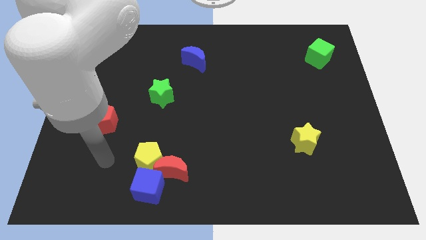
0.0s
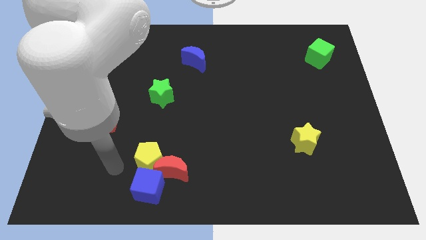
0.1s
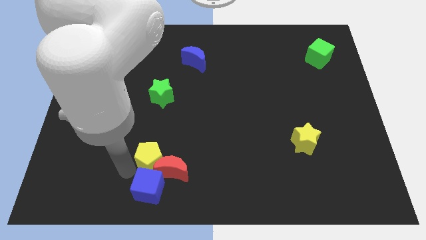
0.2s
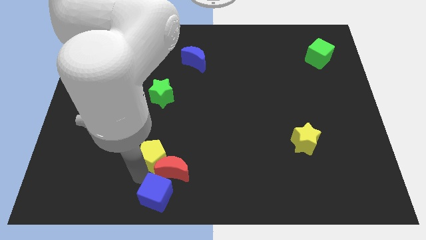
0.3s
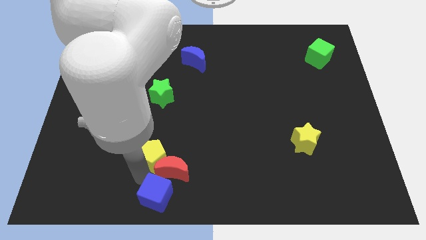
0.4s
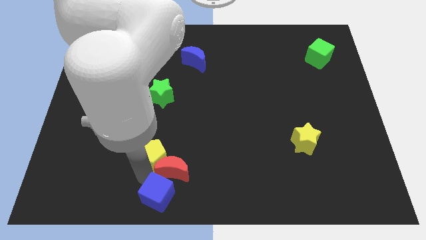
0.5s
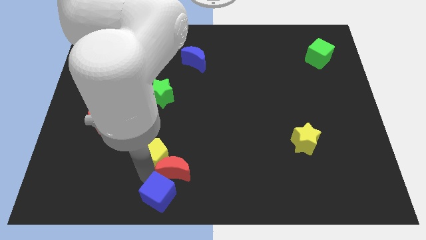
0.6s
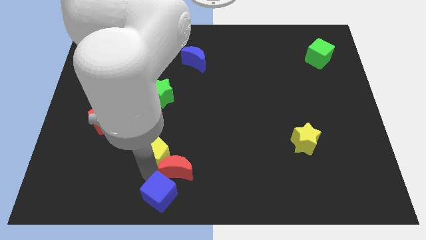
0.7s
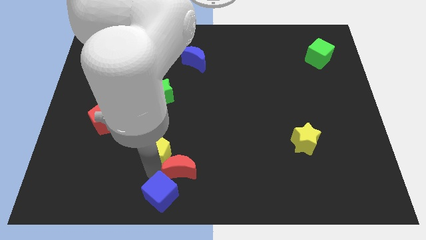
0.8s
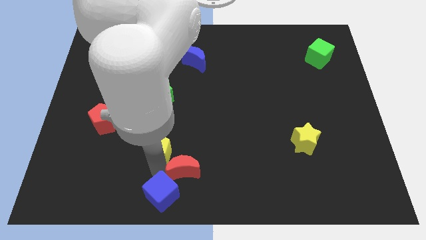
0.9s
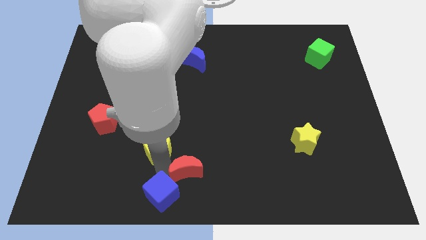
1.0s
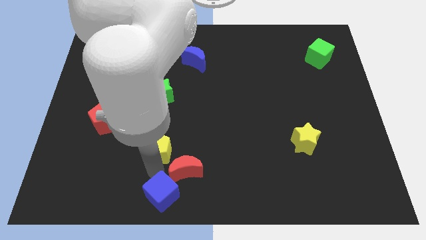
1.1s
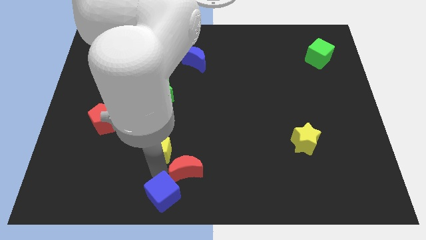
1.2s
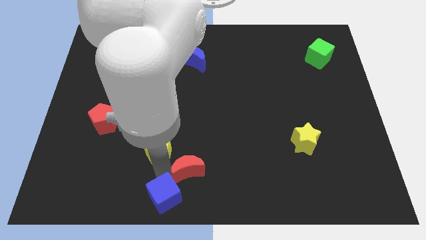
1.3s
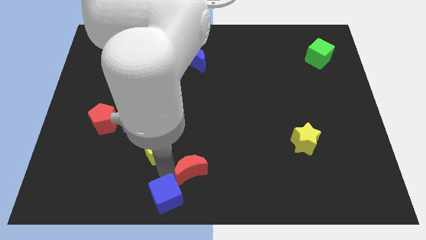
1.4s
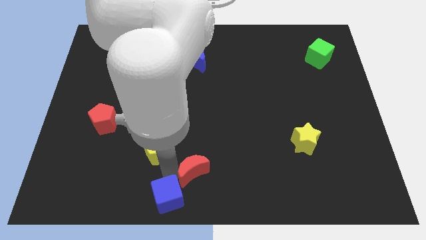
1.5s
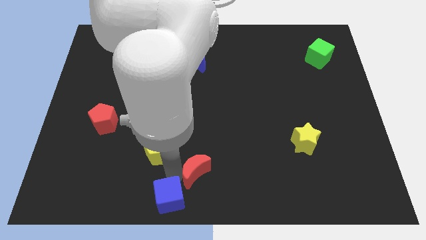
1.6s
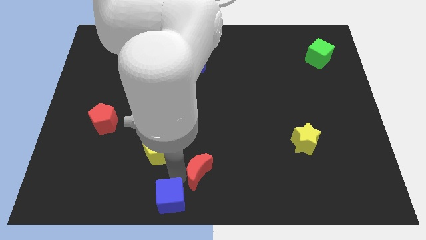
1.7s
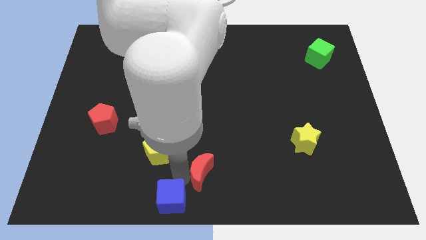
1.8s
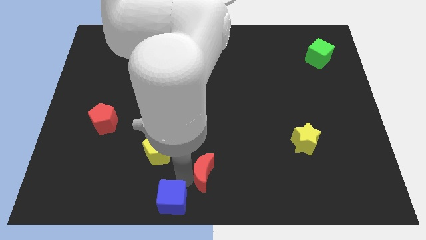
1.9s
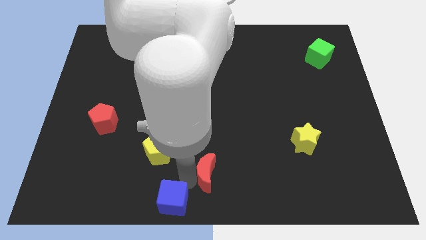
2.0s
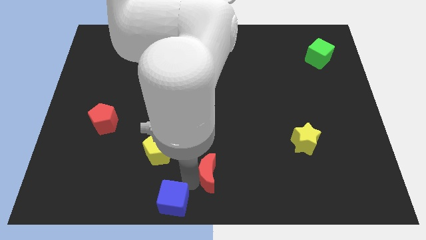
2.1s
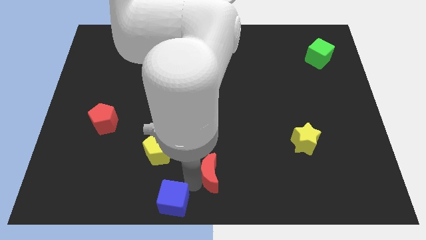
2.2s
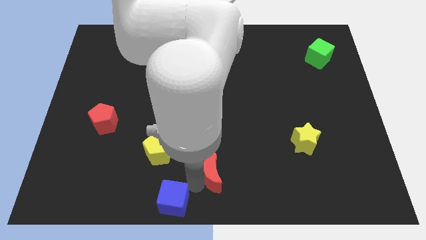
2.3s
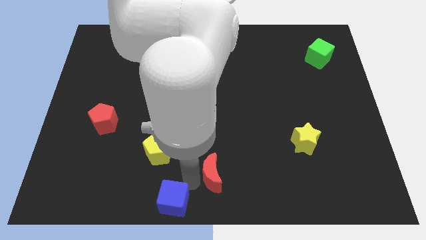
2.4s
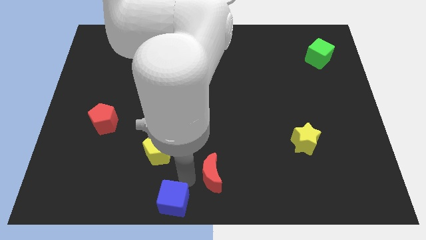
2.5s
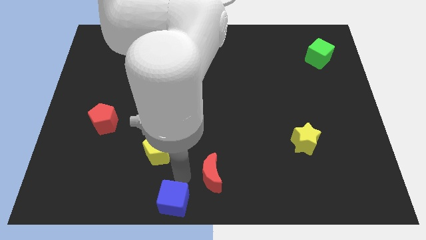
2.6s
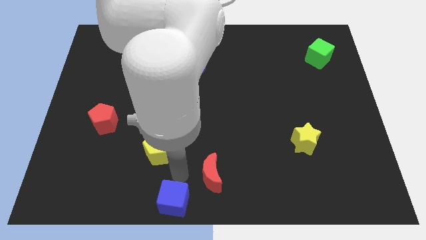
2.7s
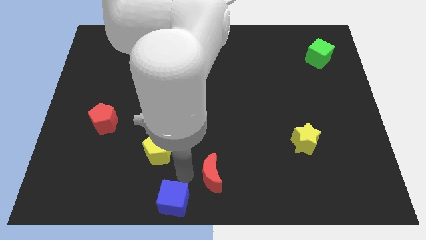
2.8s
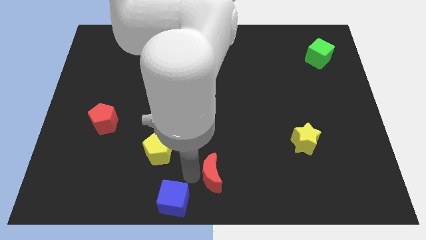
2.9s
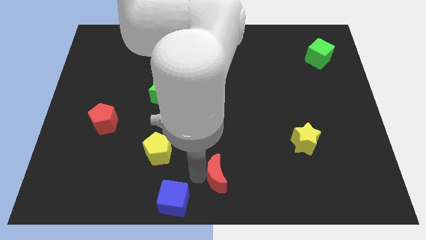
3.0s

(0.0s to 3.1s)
move the red moon away from the yellow pentagon and blue cube

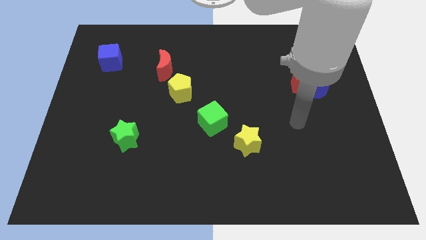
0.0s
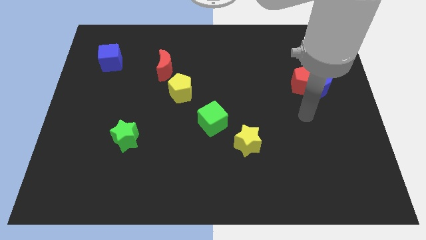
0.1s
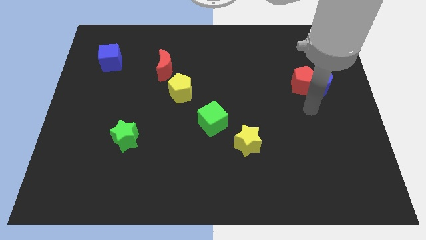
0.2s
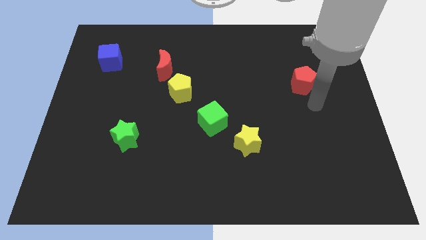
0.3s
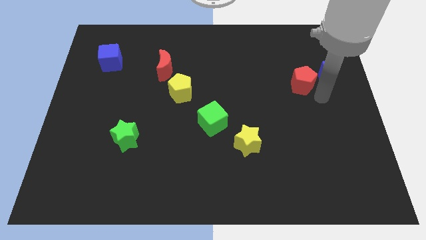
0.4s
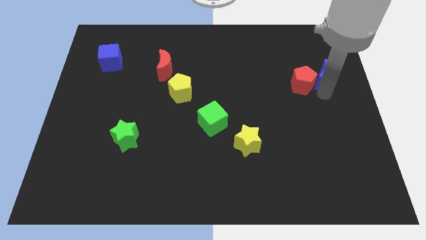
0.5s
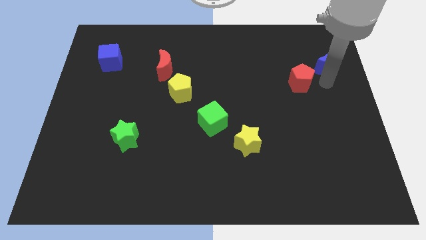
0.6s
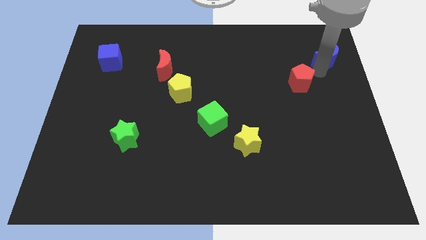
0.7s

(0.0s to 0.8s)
move the red pentagon away from the blue moon

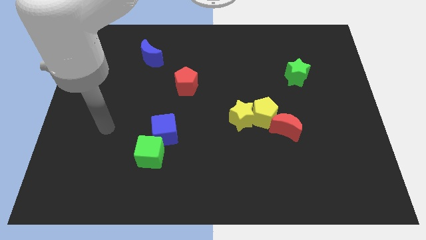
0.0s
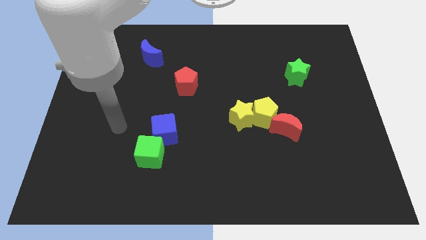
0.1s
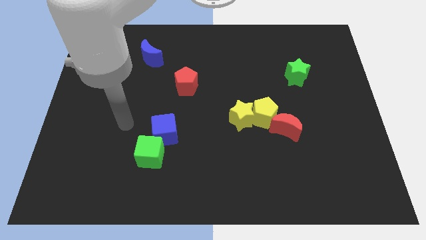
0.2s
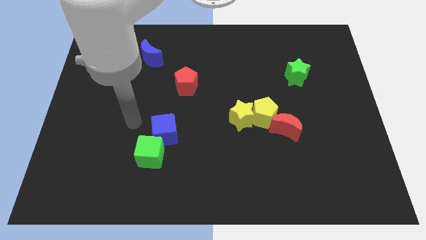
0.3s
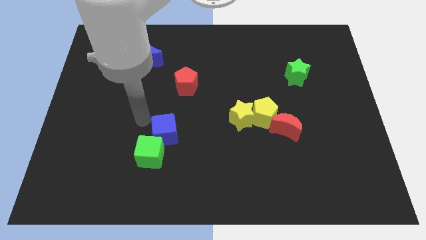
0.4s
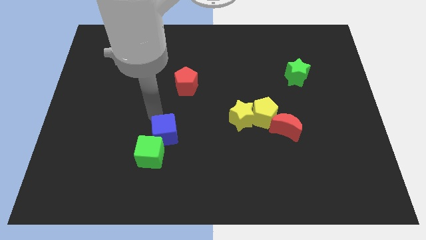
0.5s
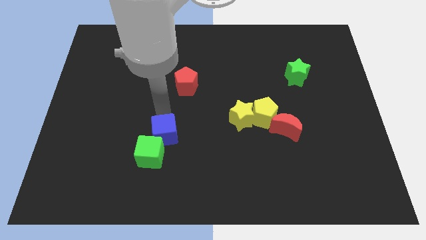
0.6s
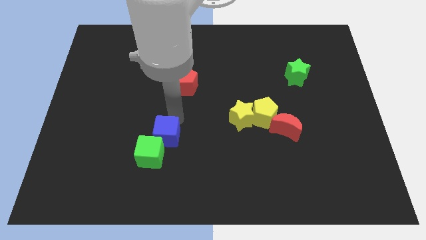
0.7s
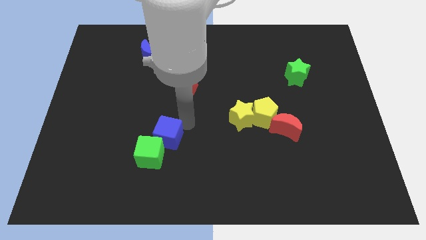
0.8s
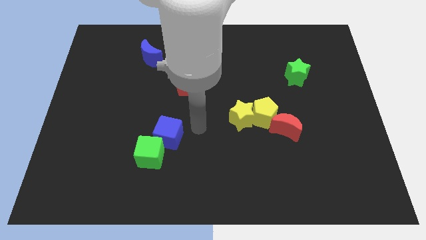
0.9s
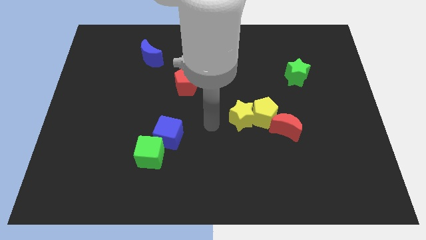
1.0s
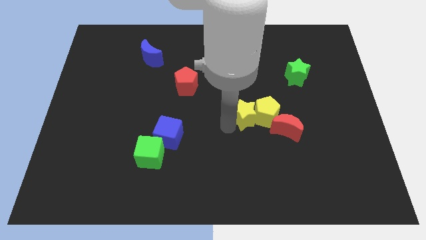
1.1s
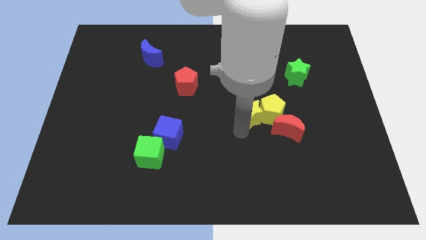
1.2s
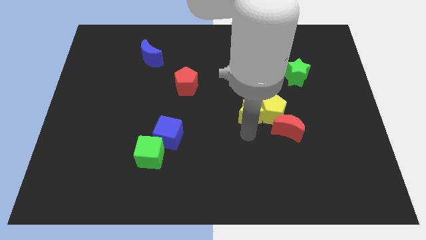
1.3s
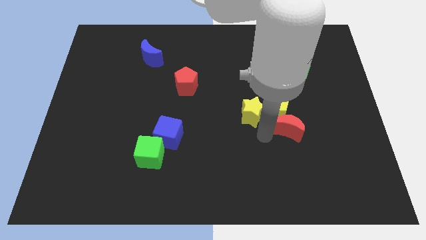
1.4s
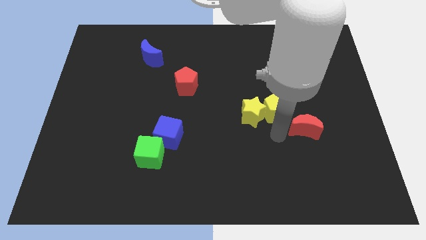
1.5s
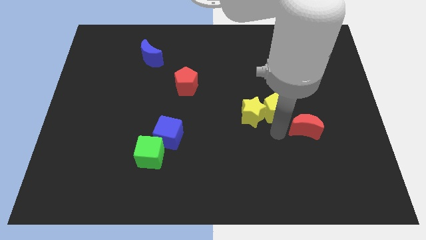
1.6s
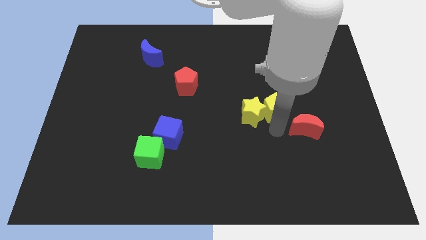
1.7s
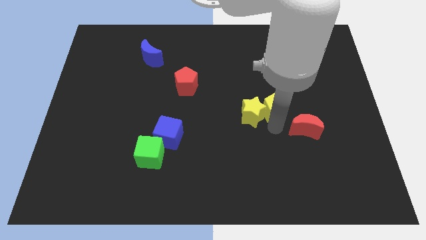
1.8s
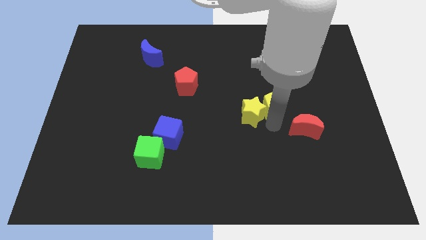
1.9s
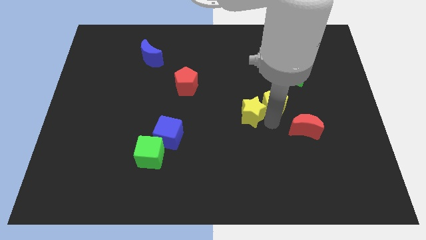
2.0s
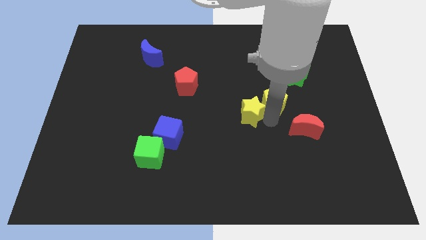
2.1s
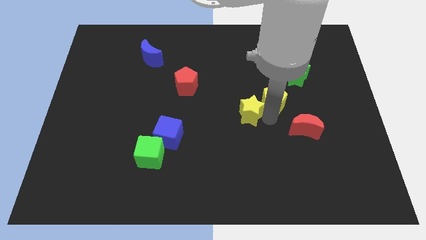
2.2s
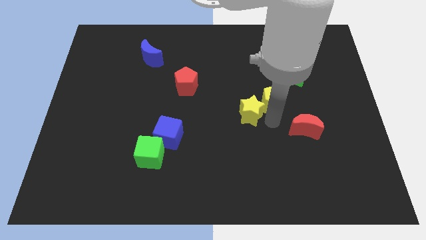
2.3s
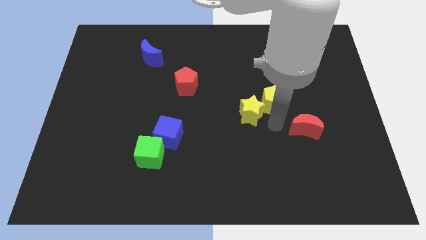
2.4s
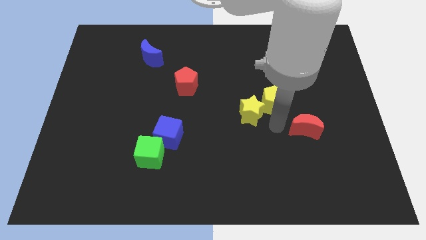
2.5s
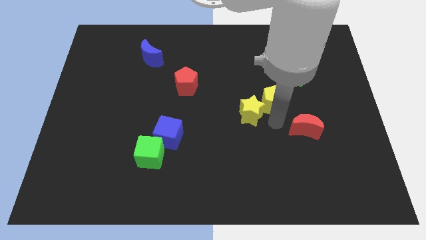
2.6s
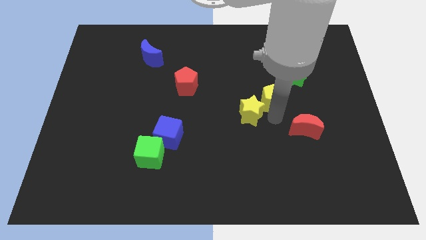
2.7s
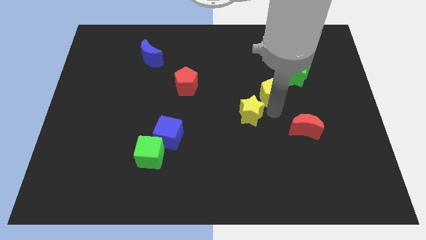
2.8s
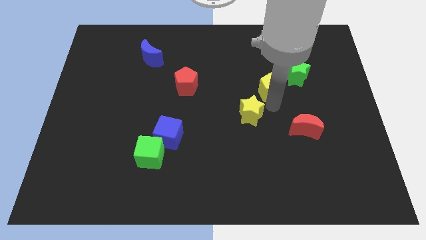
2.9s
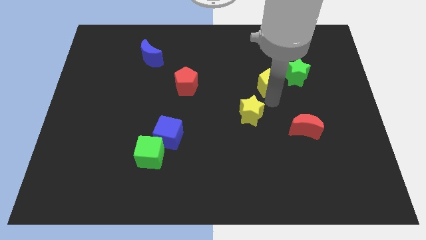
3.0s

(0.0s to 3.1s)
pull the yellow pentagon apart from the yellow star and red moon

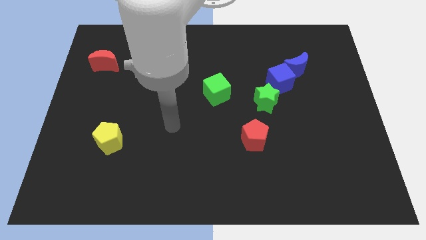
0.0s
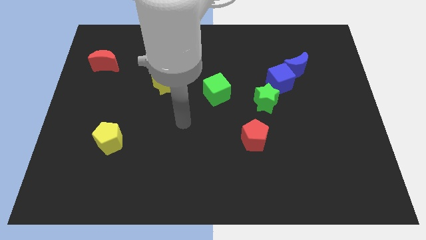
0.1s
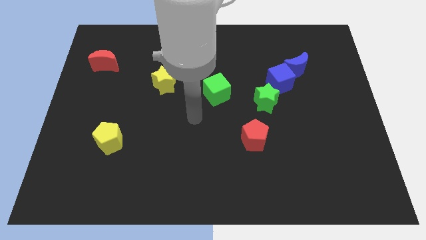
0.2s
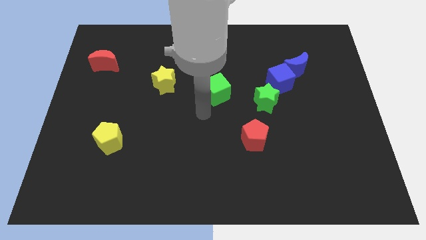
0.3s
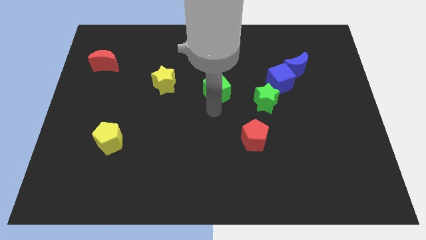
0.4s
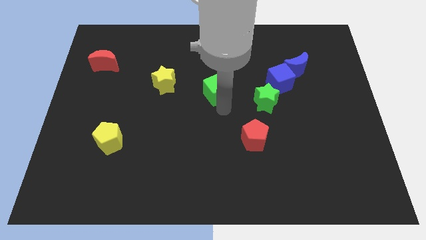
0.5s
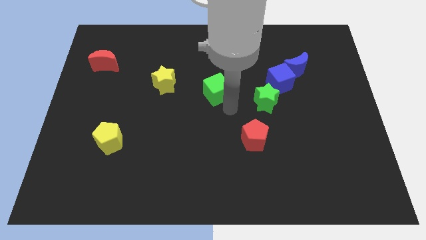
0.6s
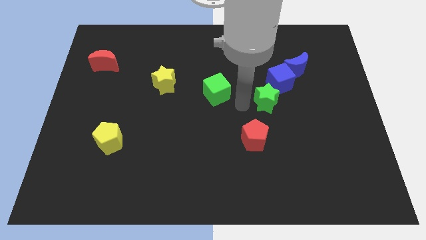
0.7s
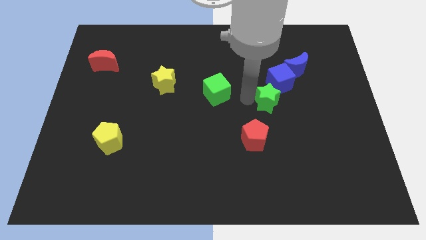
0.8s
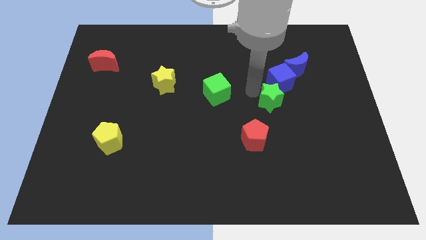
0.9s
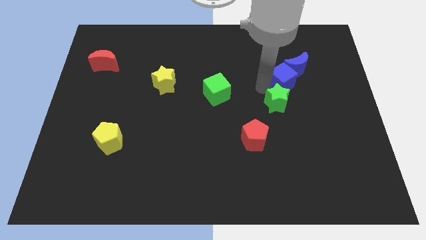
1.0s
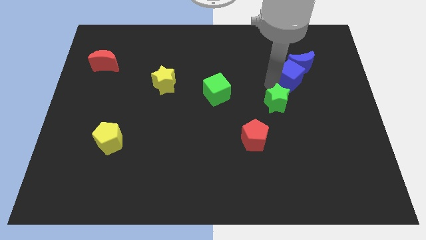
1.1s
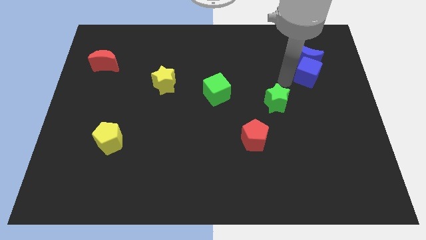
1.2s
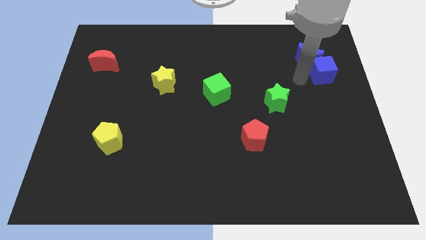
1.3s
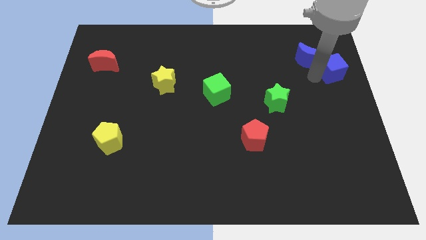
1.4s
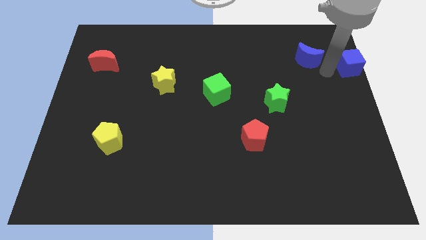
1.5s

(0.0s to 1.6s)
separate the blue moon from the blue cube

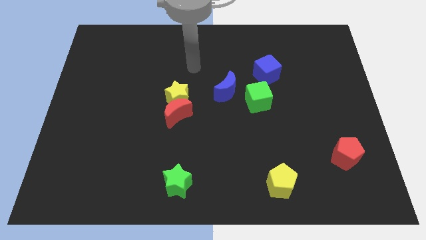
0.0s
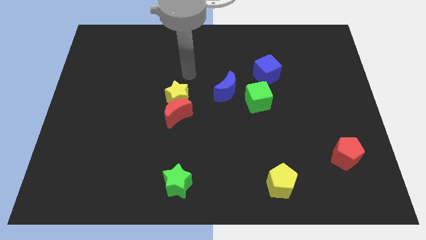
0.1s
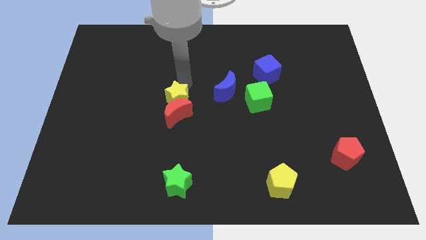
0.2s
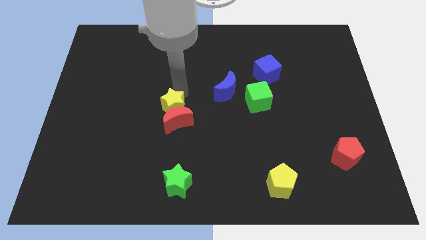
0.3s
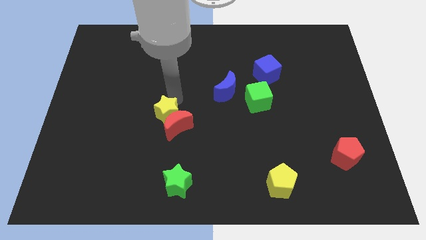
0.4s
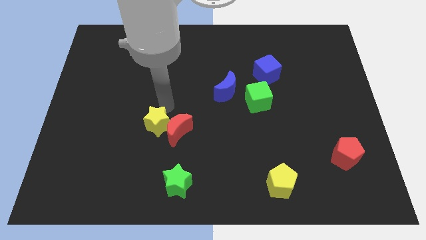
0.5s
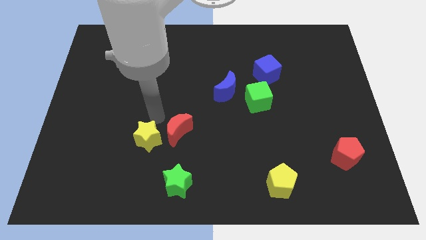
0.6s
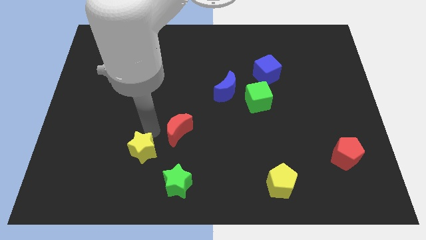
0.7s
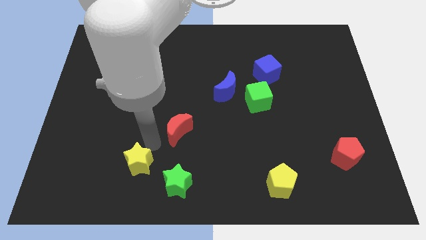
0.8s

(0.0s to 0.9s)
separate the red moon from the yellow star
